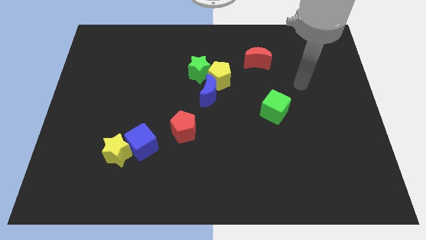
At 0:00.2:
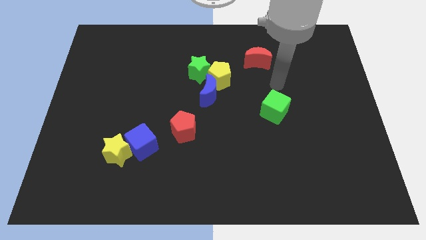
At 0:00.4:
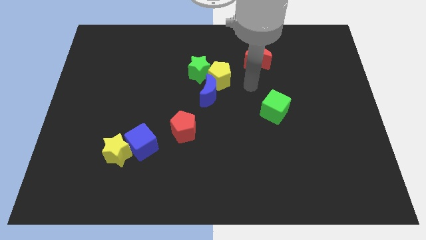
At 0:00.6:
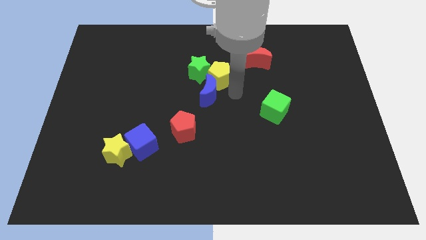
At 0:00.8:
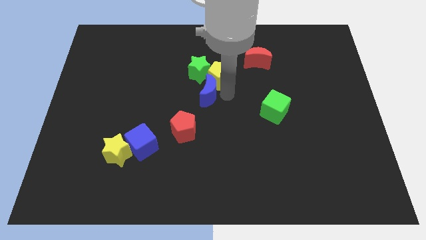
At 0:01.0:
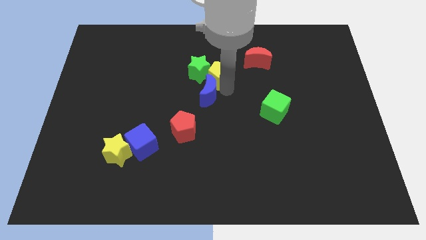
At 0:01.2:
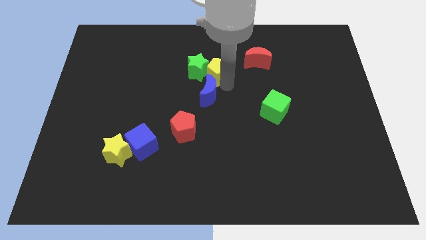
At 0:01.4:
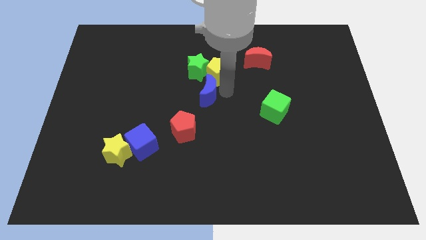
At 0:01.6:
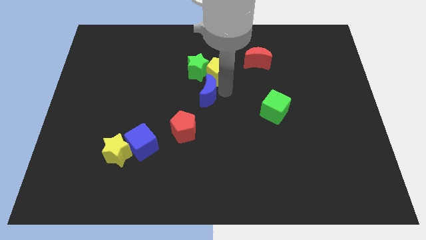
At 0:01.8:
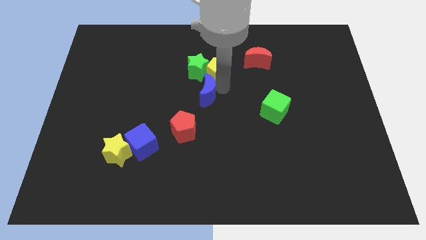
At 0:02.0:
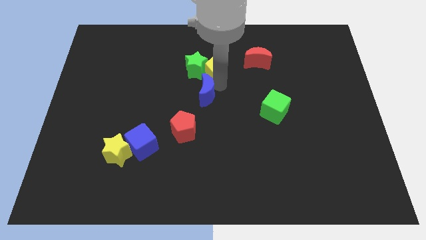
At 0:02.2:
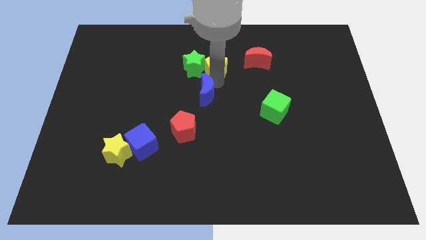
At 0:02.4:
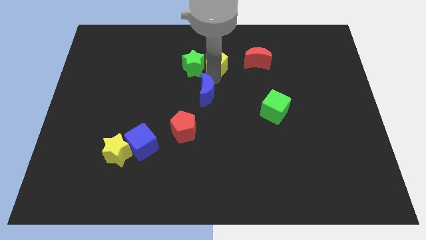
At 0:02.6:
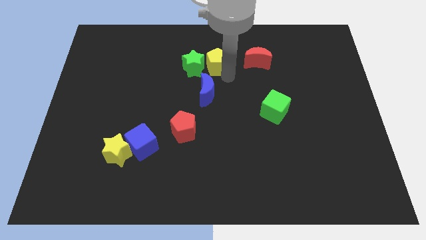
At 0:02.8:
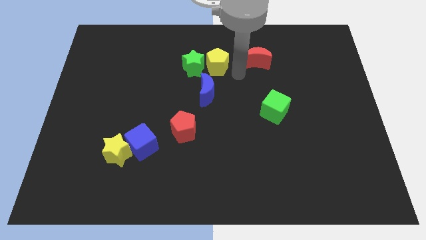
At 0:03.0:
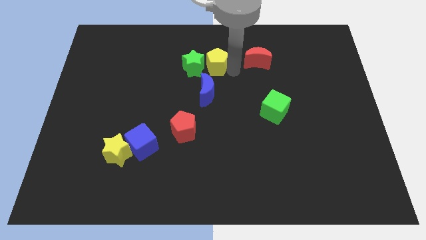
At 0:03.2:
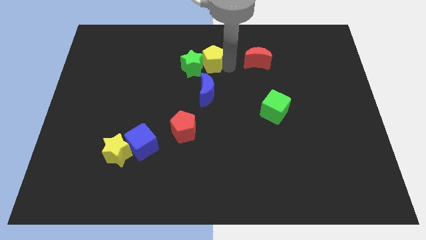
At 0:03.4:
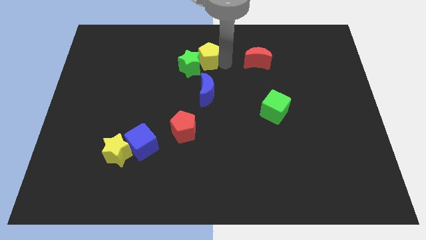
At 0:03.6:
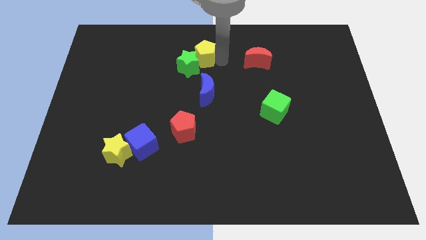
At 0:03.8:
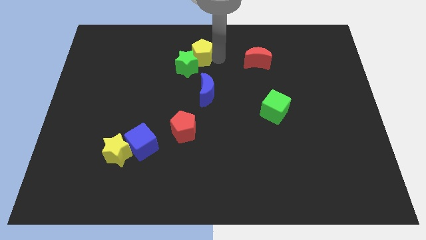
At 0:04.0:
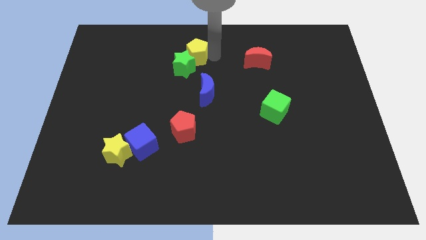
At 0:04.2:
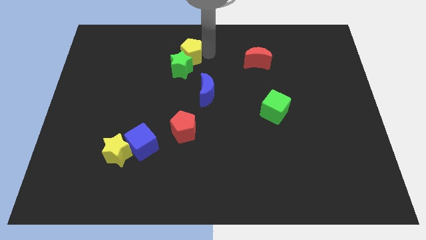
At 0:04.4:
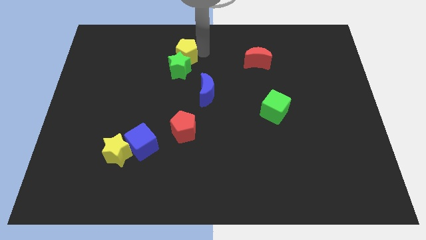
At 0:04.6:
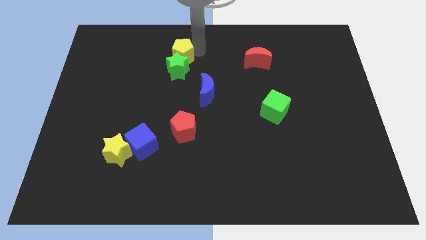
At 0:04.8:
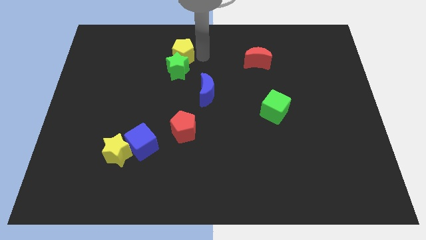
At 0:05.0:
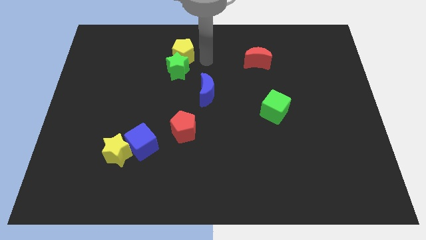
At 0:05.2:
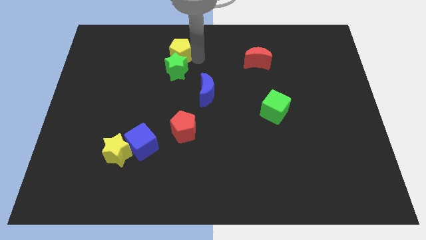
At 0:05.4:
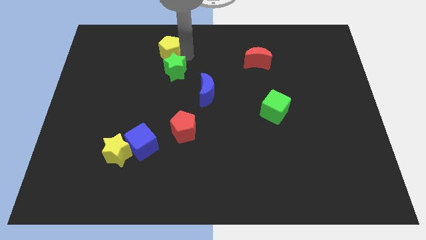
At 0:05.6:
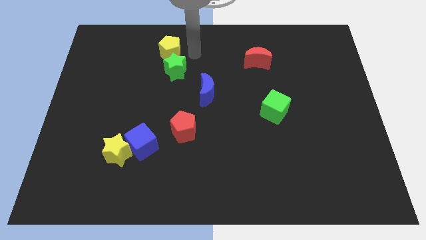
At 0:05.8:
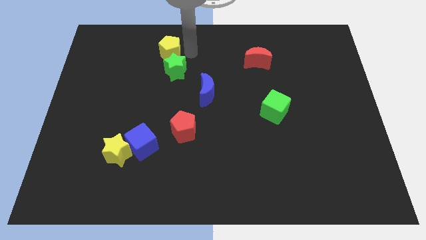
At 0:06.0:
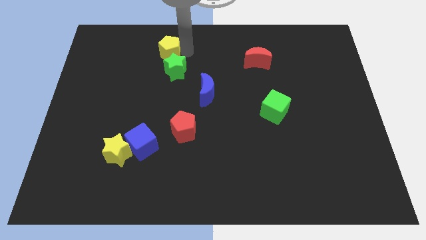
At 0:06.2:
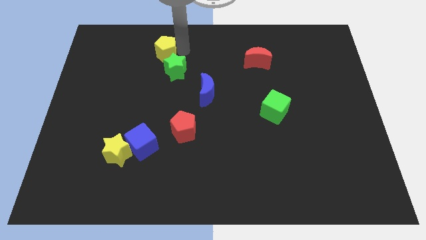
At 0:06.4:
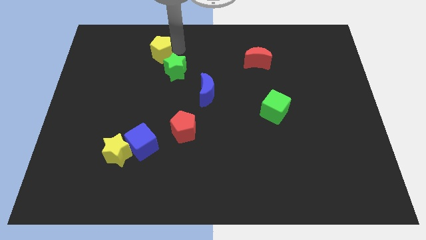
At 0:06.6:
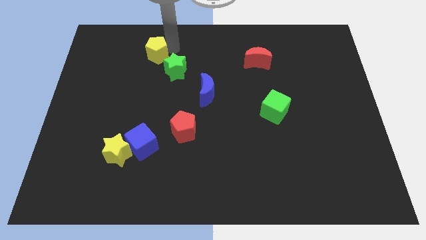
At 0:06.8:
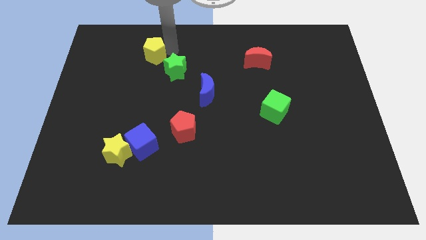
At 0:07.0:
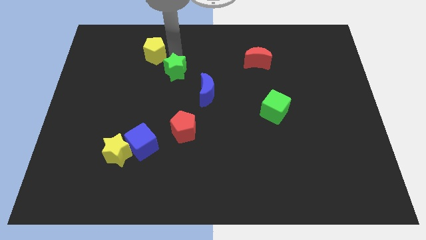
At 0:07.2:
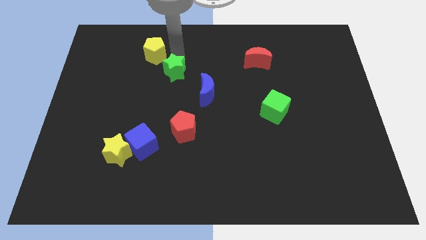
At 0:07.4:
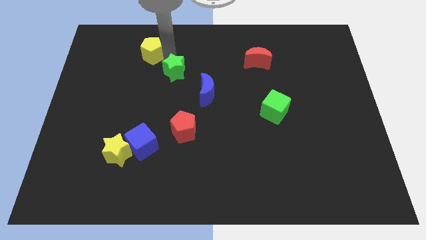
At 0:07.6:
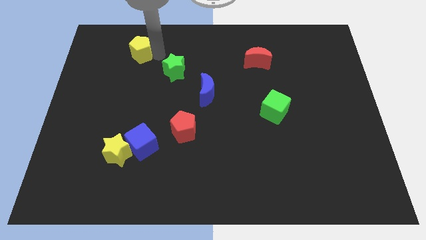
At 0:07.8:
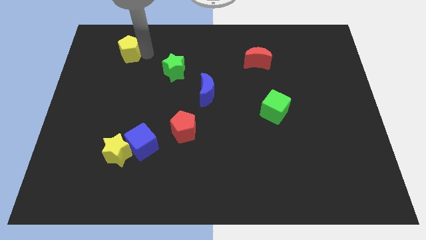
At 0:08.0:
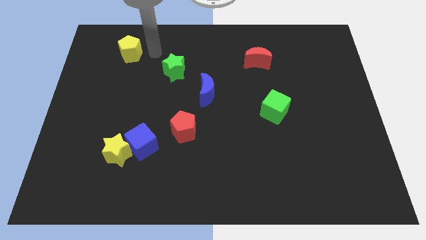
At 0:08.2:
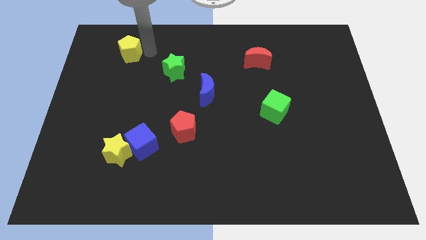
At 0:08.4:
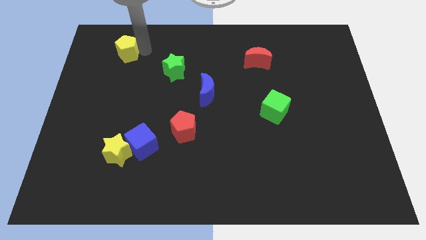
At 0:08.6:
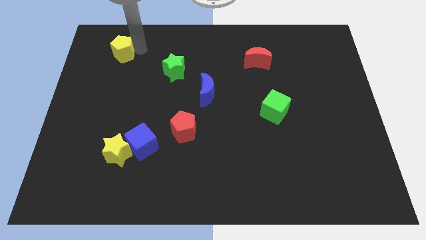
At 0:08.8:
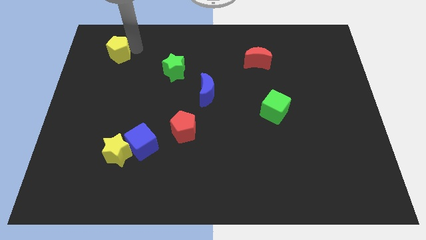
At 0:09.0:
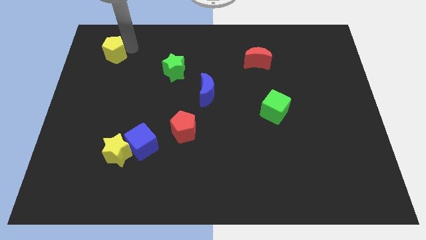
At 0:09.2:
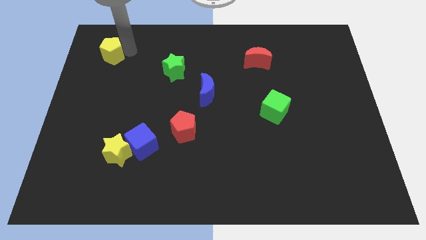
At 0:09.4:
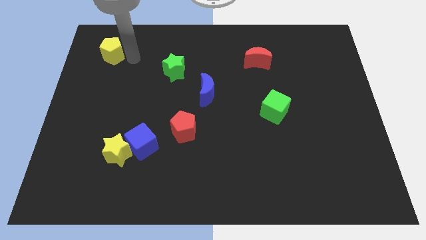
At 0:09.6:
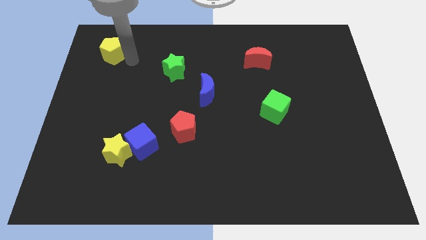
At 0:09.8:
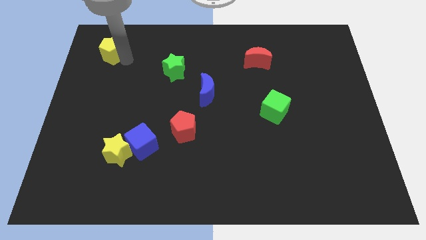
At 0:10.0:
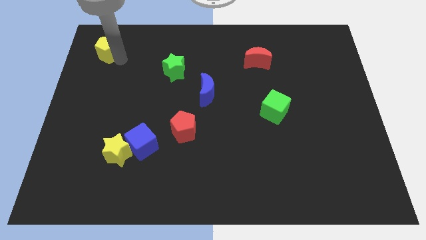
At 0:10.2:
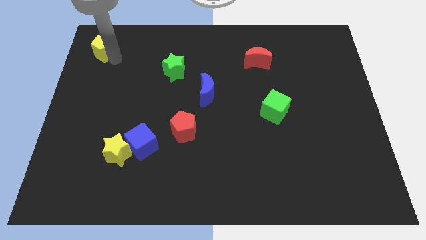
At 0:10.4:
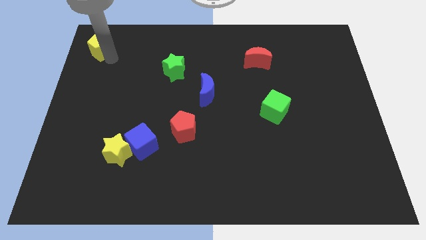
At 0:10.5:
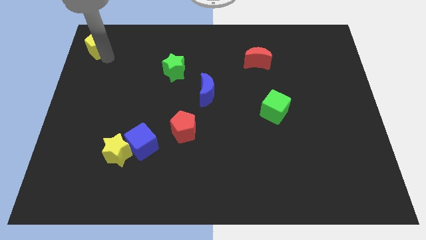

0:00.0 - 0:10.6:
put the yellow pentagon to the top left

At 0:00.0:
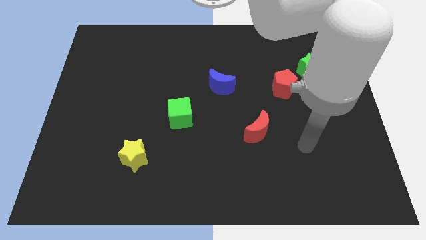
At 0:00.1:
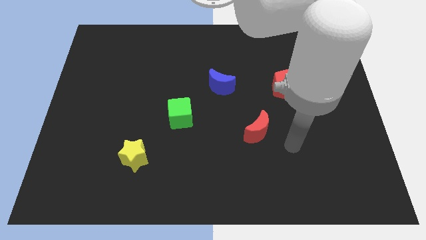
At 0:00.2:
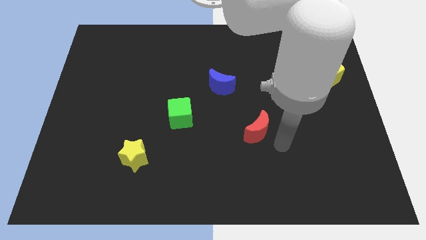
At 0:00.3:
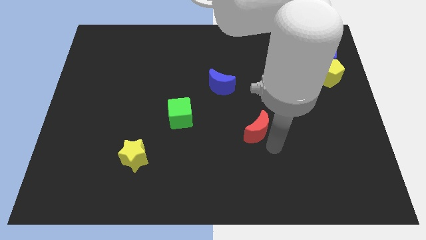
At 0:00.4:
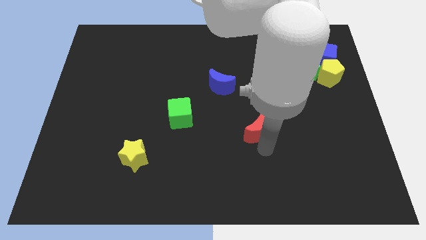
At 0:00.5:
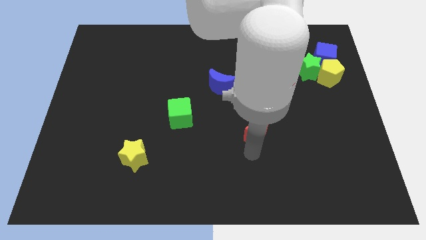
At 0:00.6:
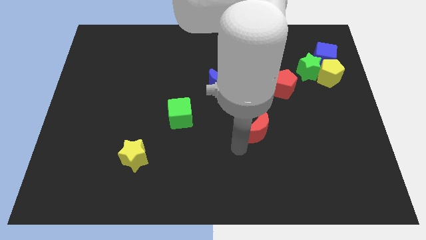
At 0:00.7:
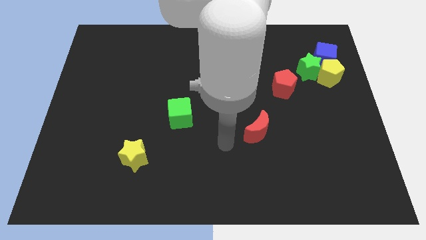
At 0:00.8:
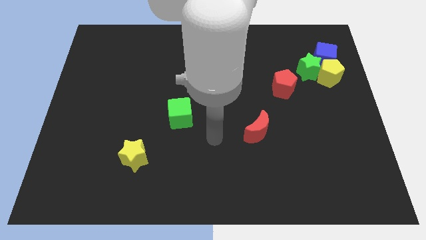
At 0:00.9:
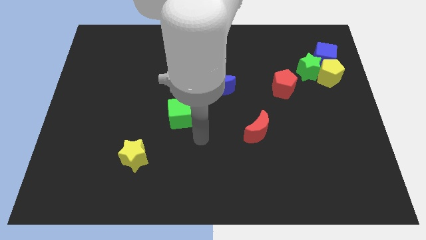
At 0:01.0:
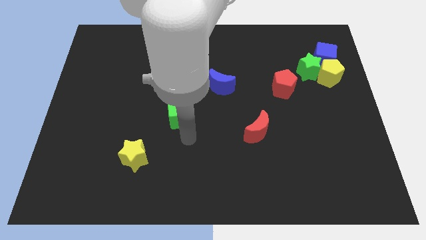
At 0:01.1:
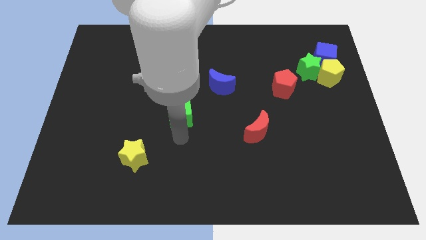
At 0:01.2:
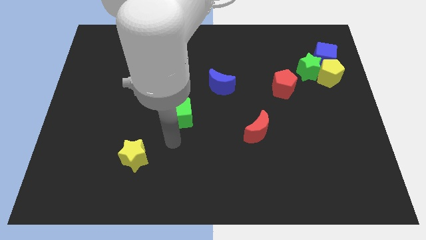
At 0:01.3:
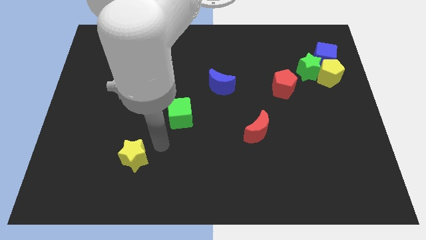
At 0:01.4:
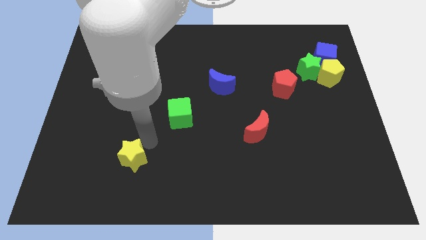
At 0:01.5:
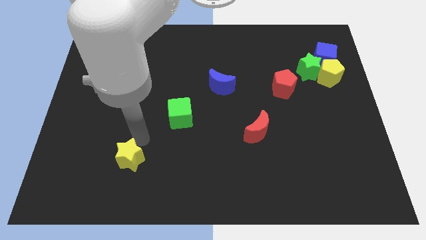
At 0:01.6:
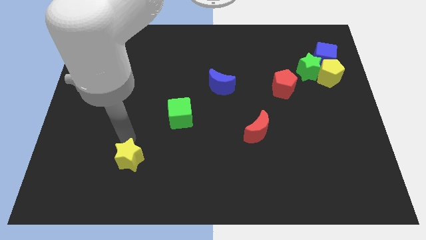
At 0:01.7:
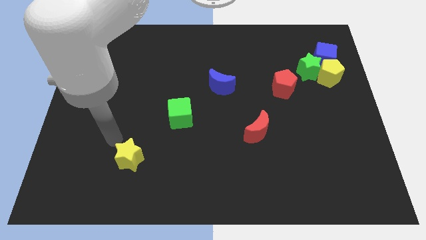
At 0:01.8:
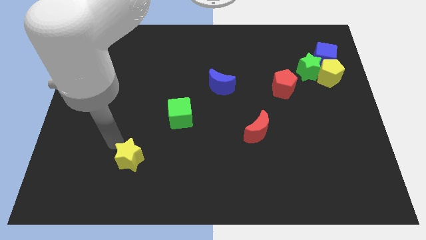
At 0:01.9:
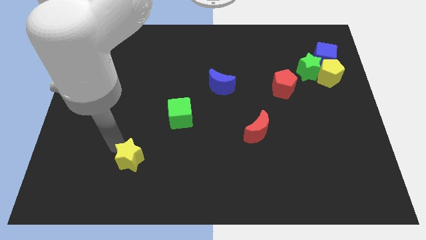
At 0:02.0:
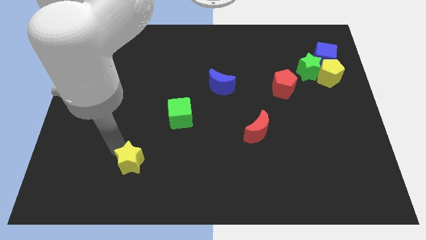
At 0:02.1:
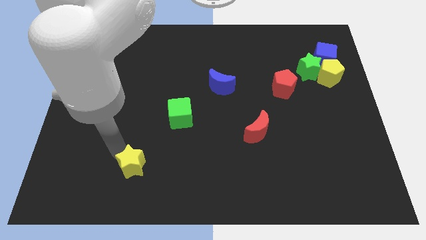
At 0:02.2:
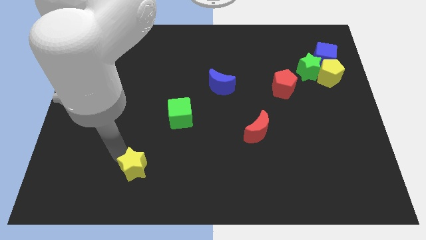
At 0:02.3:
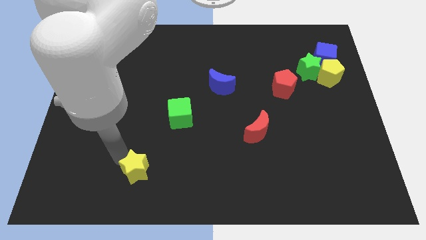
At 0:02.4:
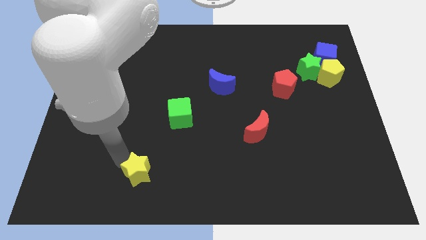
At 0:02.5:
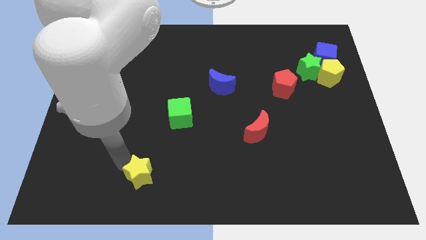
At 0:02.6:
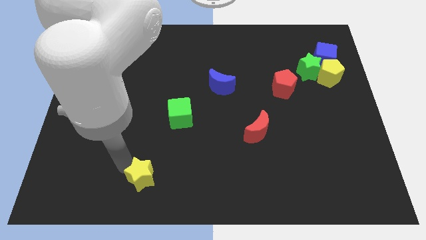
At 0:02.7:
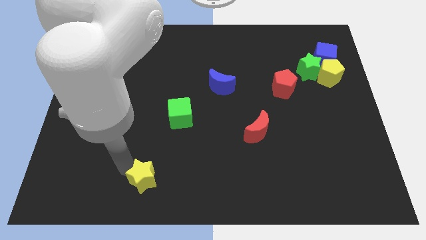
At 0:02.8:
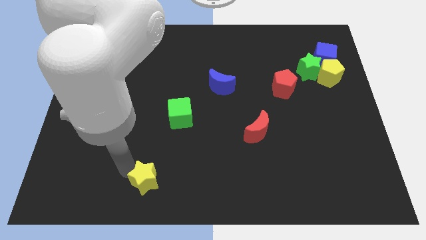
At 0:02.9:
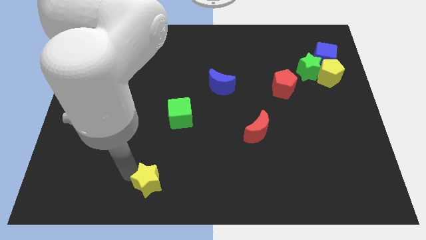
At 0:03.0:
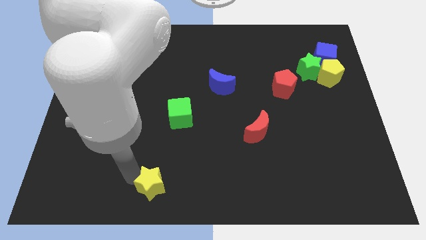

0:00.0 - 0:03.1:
push the yellow star to the bottom side
